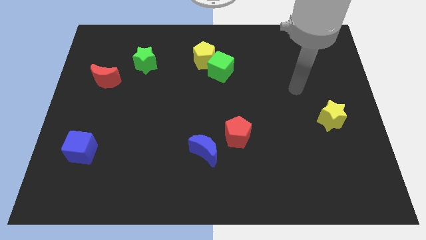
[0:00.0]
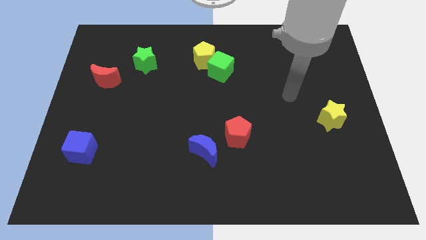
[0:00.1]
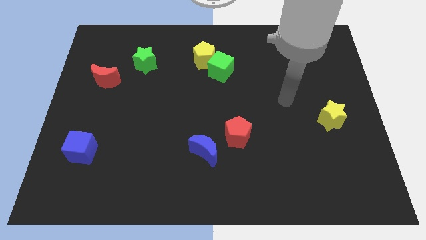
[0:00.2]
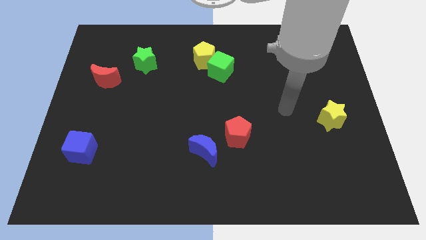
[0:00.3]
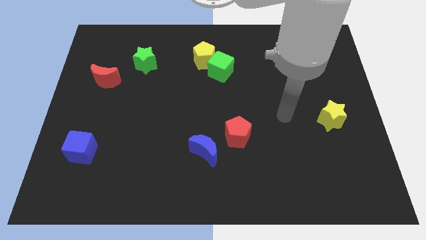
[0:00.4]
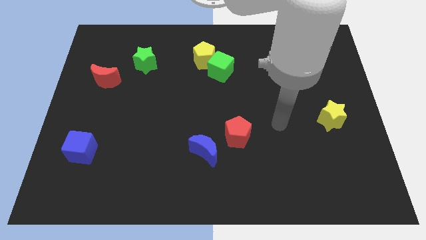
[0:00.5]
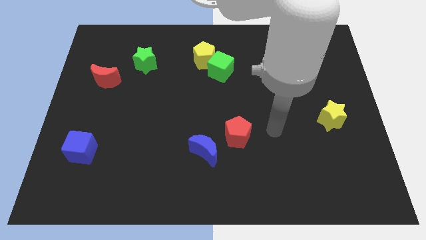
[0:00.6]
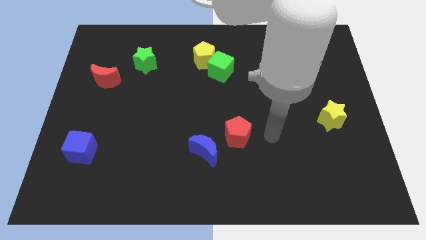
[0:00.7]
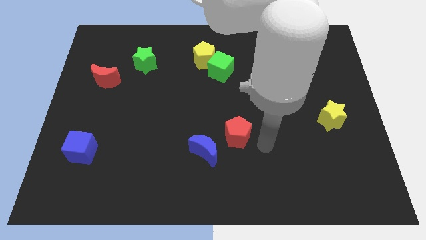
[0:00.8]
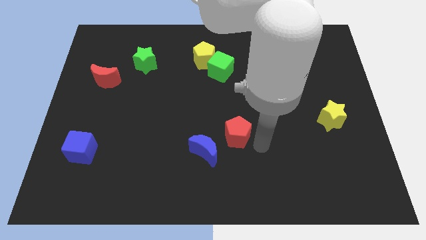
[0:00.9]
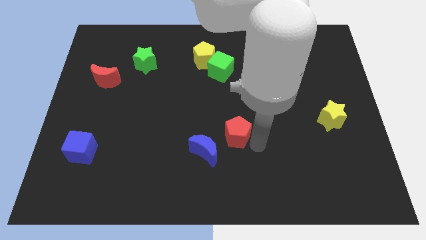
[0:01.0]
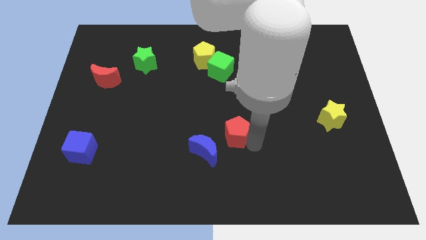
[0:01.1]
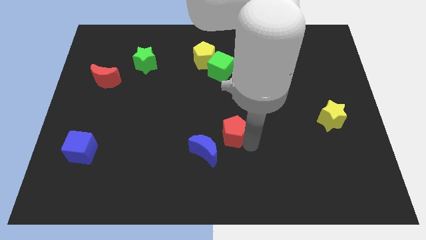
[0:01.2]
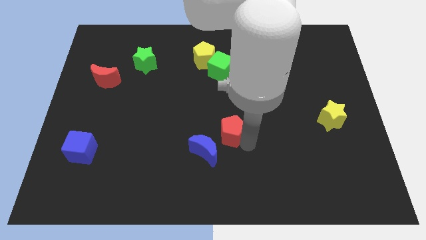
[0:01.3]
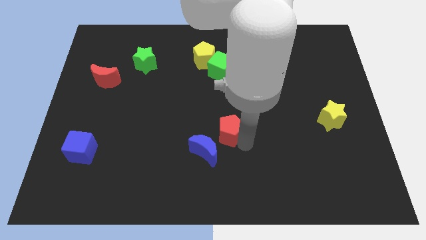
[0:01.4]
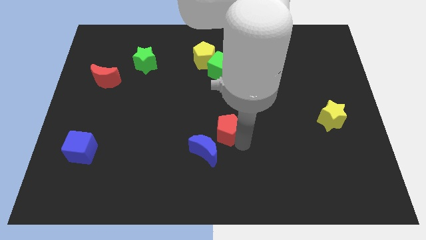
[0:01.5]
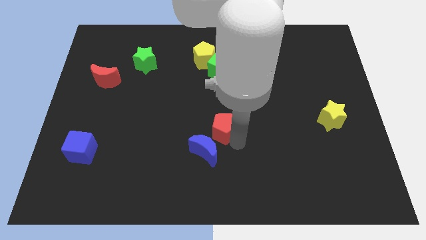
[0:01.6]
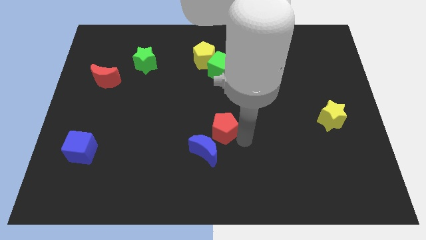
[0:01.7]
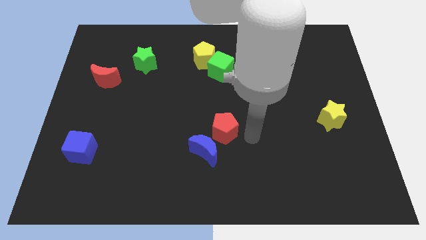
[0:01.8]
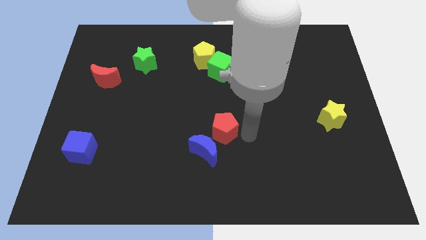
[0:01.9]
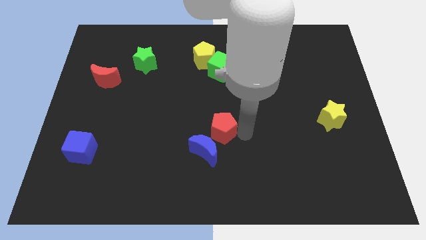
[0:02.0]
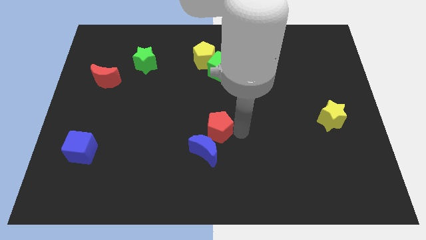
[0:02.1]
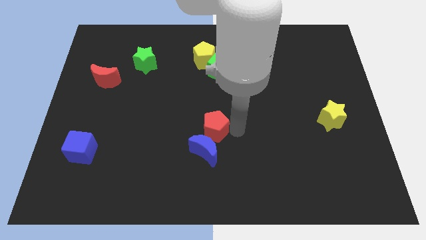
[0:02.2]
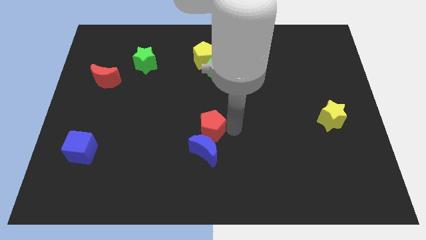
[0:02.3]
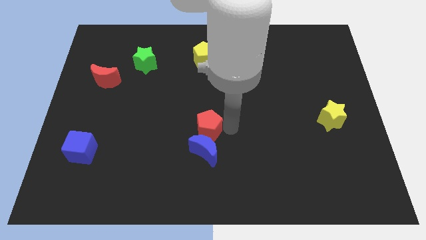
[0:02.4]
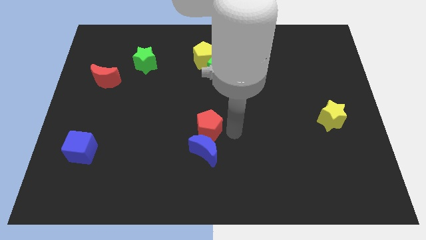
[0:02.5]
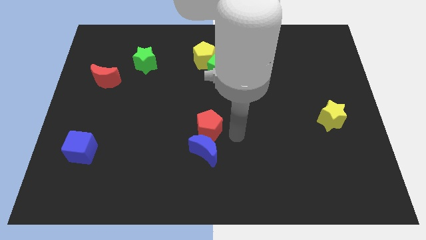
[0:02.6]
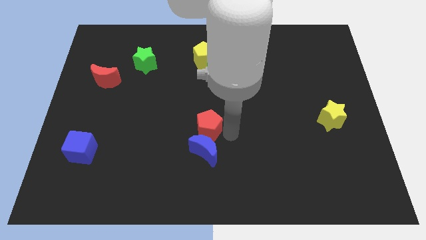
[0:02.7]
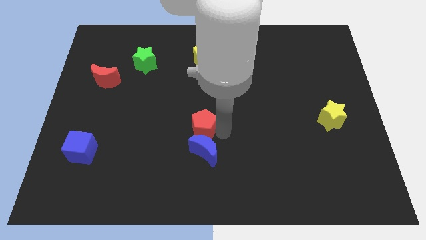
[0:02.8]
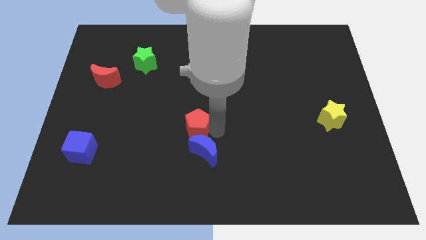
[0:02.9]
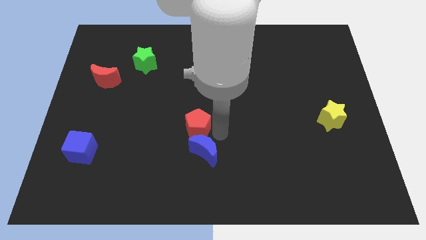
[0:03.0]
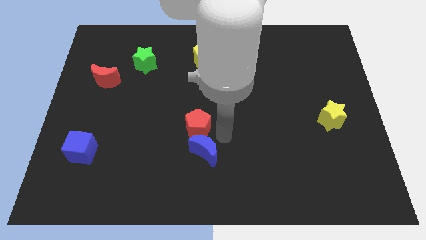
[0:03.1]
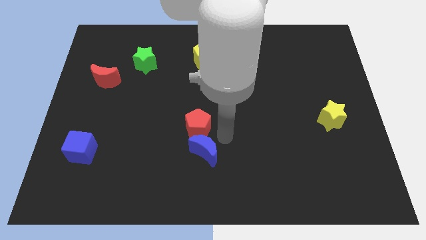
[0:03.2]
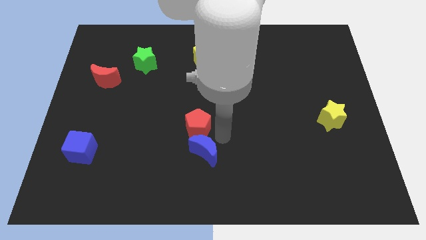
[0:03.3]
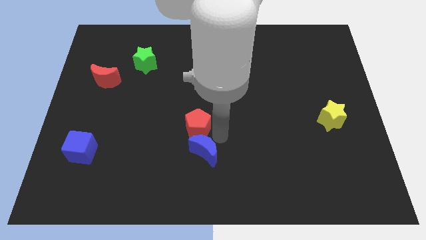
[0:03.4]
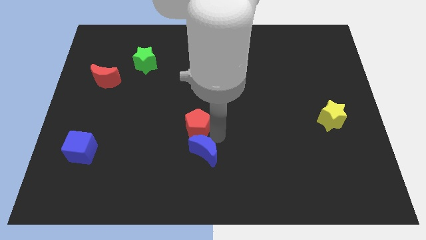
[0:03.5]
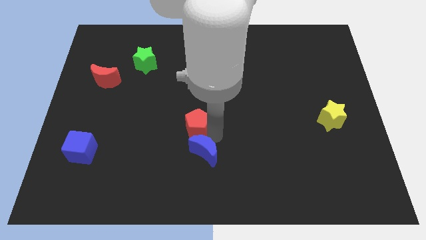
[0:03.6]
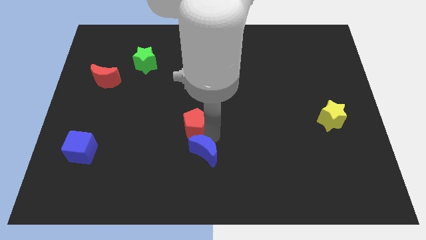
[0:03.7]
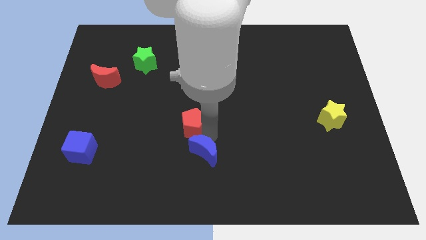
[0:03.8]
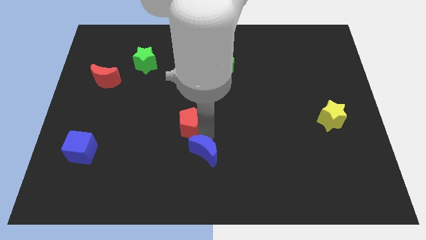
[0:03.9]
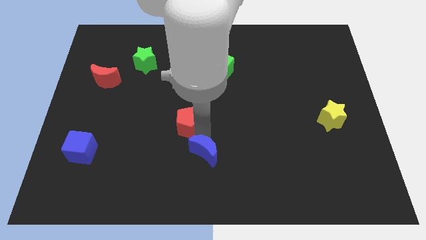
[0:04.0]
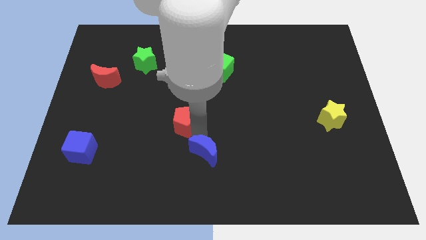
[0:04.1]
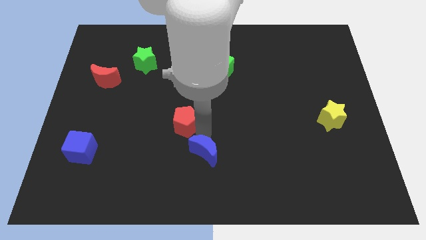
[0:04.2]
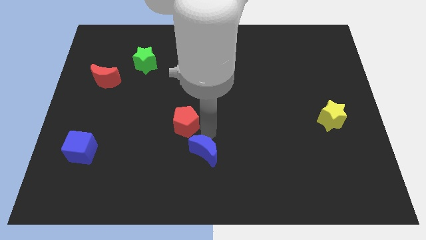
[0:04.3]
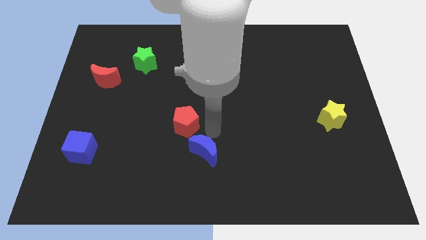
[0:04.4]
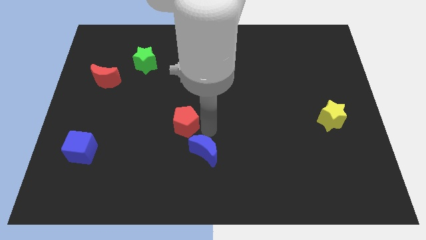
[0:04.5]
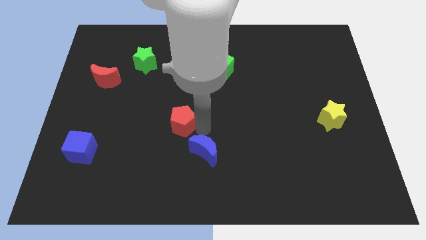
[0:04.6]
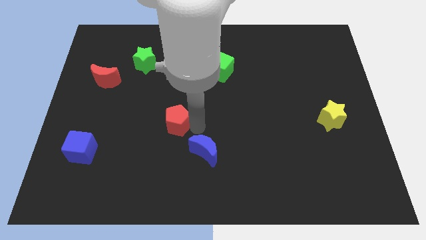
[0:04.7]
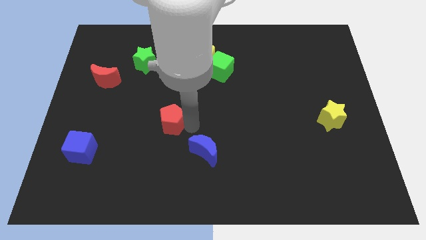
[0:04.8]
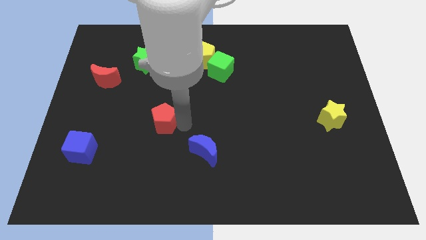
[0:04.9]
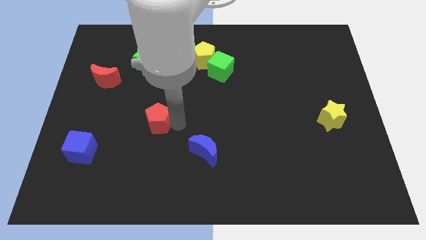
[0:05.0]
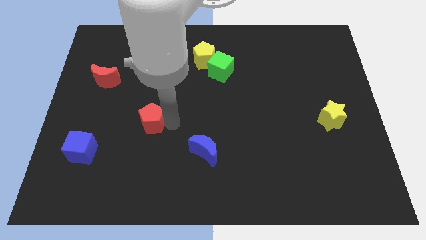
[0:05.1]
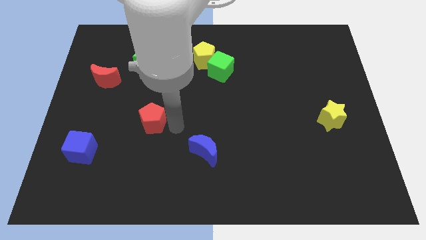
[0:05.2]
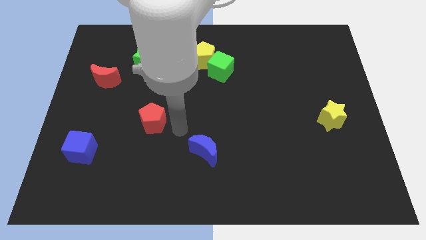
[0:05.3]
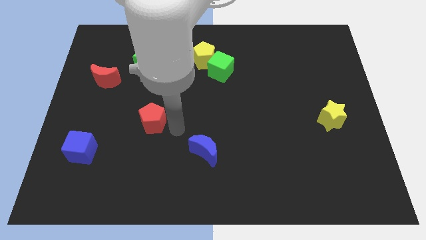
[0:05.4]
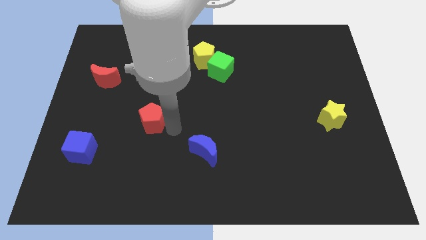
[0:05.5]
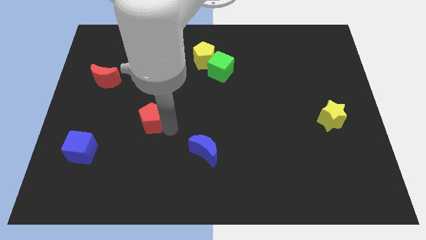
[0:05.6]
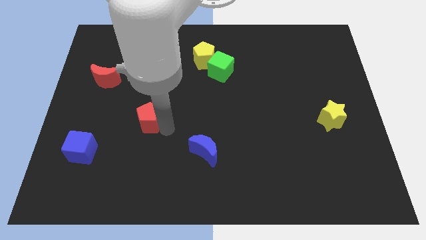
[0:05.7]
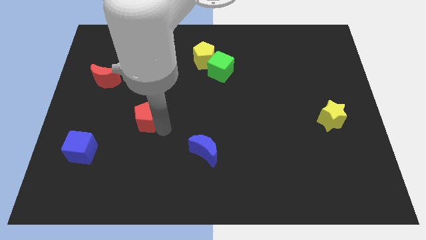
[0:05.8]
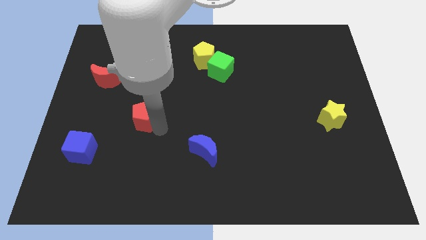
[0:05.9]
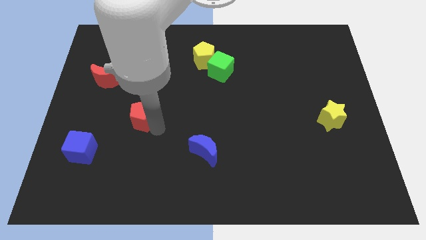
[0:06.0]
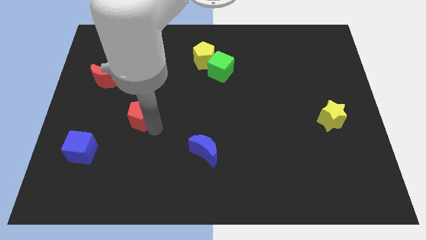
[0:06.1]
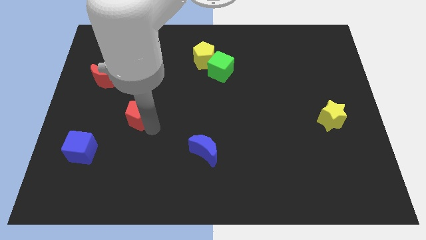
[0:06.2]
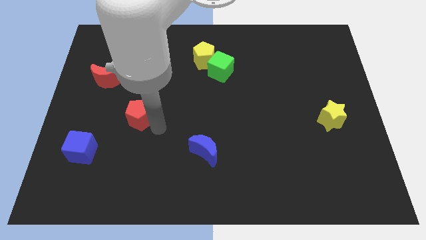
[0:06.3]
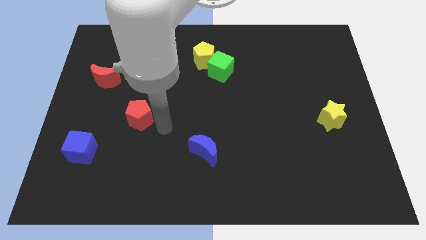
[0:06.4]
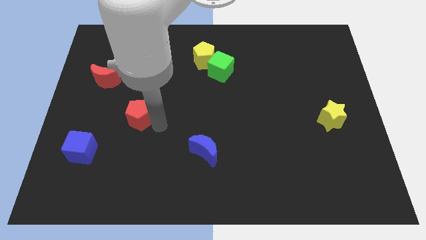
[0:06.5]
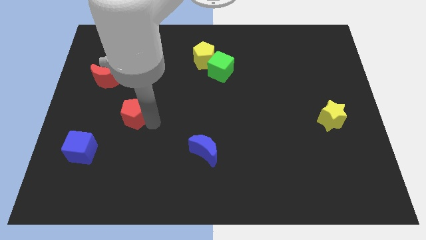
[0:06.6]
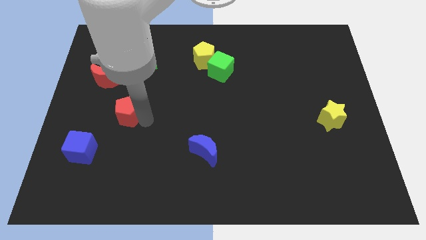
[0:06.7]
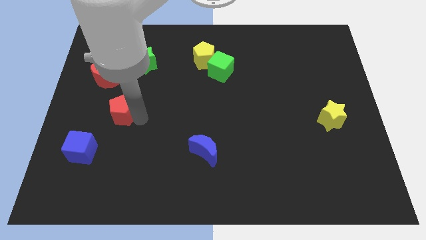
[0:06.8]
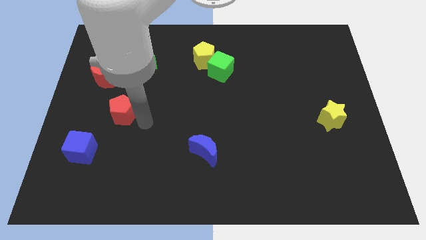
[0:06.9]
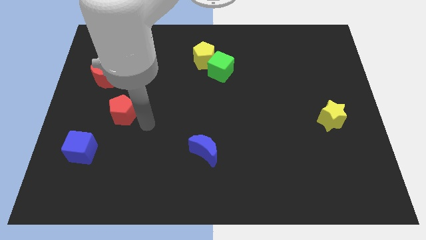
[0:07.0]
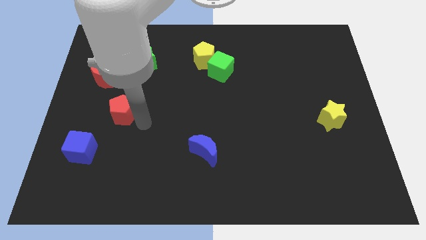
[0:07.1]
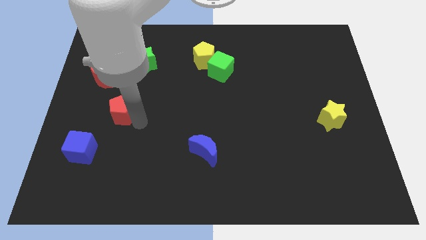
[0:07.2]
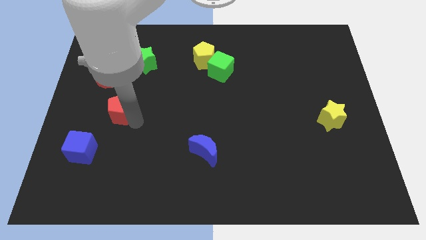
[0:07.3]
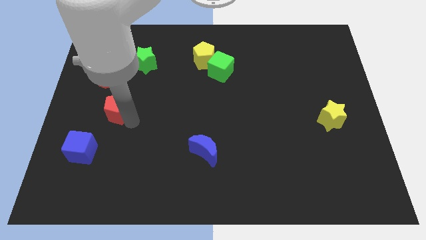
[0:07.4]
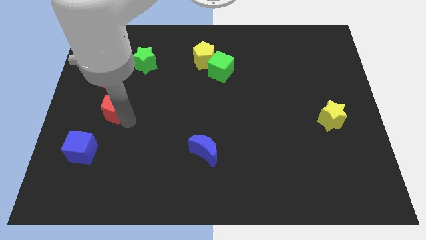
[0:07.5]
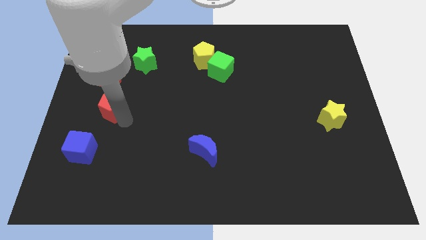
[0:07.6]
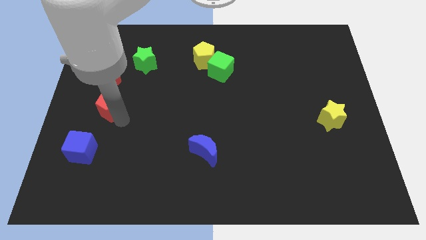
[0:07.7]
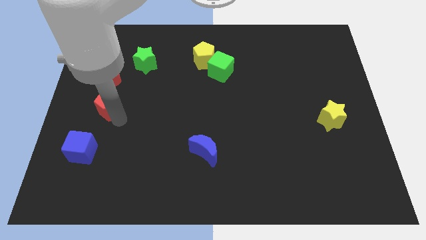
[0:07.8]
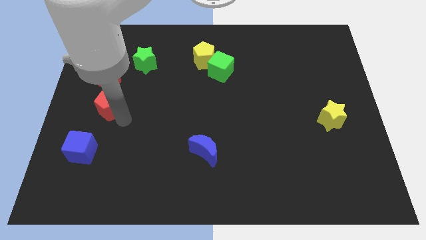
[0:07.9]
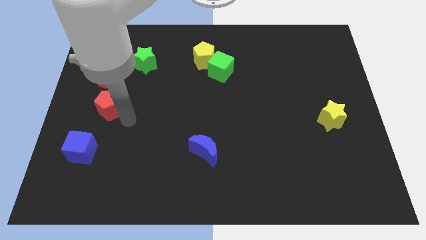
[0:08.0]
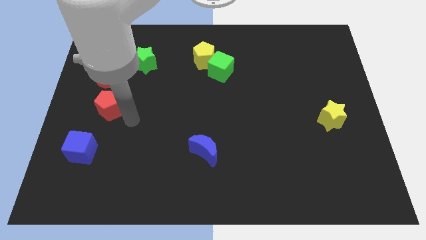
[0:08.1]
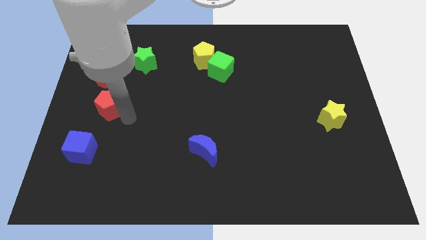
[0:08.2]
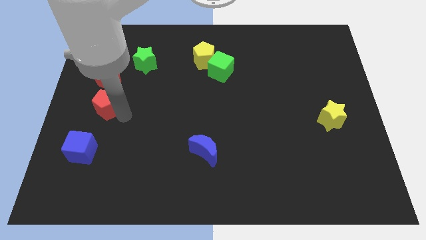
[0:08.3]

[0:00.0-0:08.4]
slide the red pentagon to the left side
